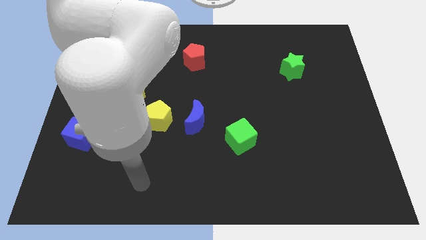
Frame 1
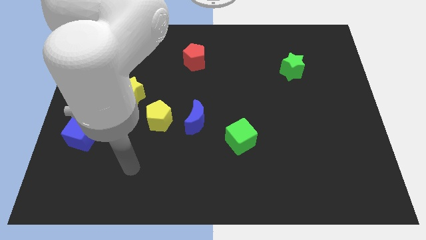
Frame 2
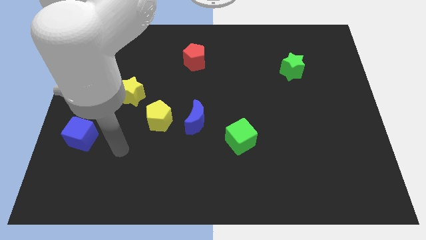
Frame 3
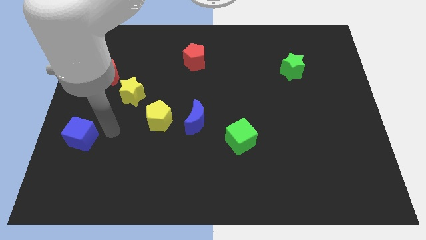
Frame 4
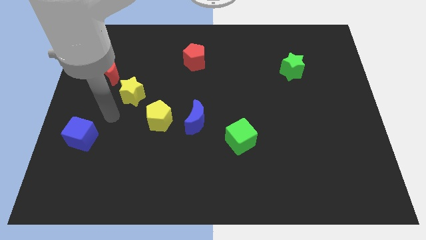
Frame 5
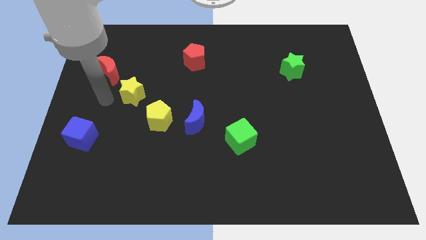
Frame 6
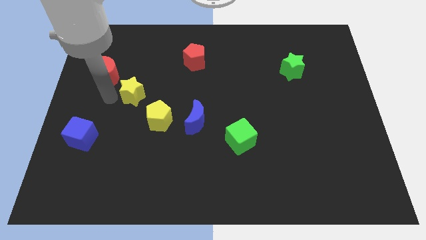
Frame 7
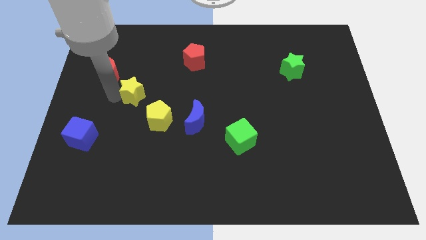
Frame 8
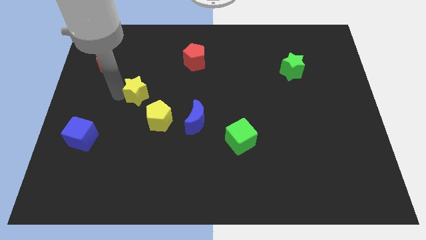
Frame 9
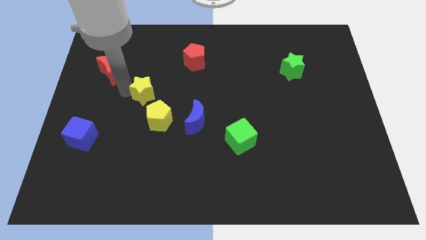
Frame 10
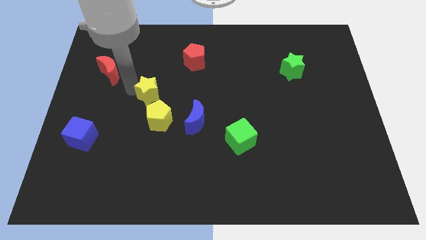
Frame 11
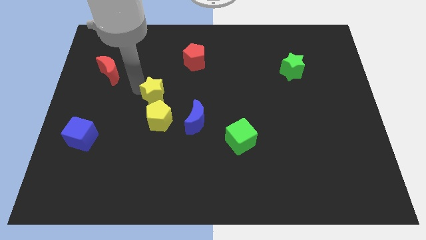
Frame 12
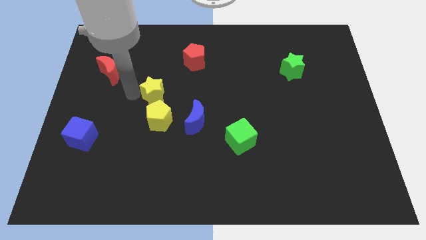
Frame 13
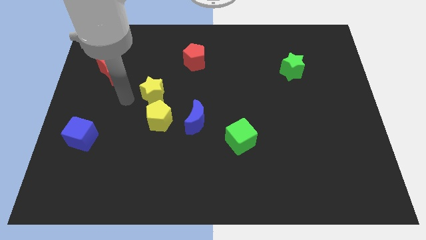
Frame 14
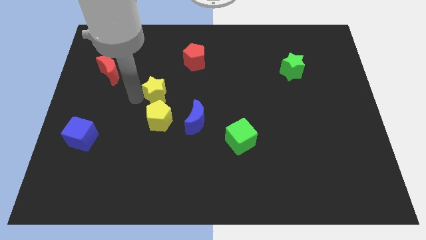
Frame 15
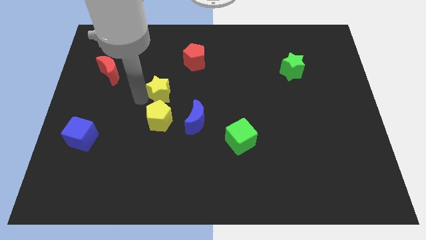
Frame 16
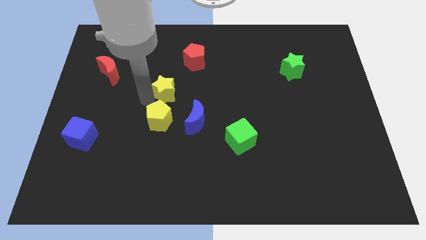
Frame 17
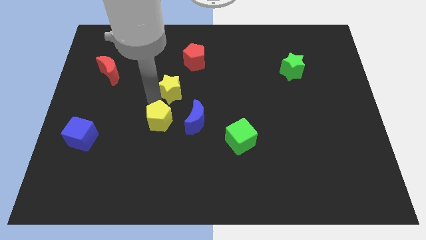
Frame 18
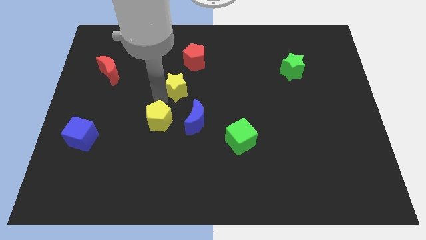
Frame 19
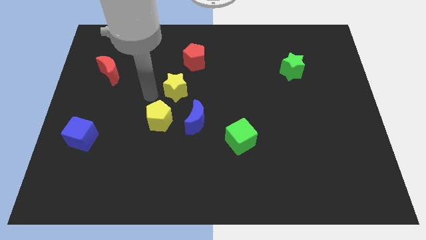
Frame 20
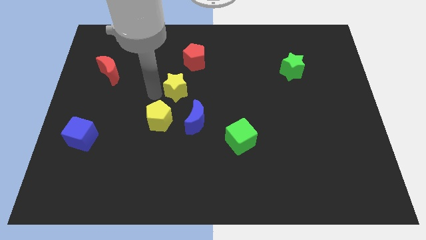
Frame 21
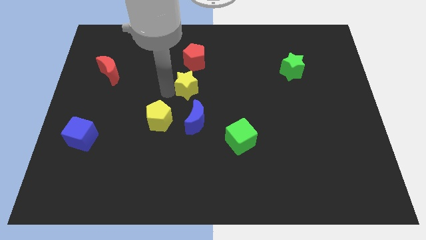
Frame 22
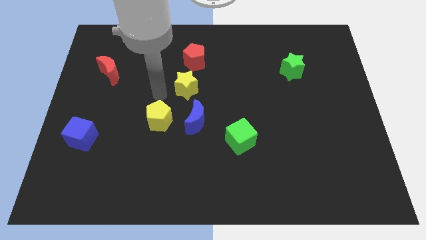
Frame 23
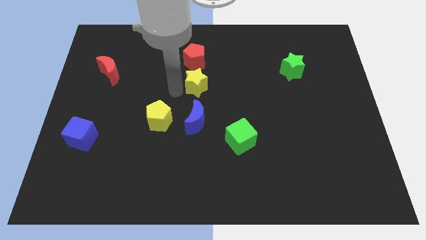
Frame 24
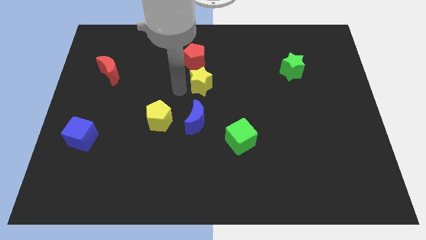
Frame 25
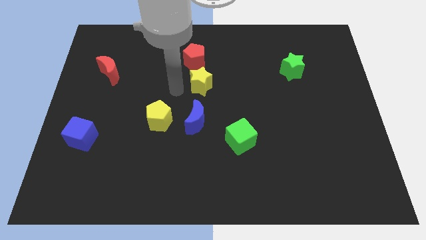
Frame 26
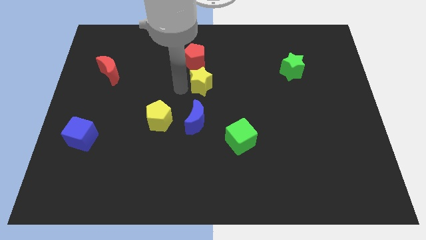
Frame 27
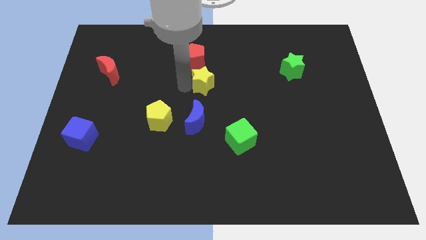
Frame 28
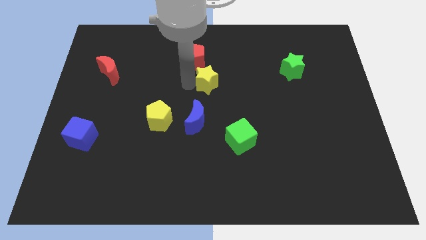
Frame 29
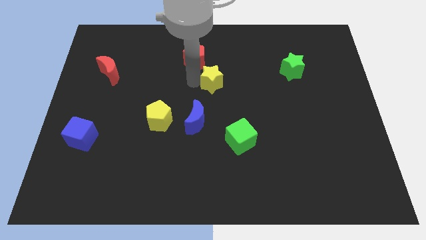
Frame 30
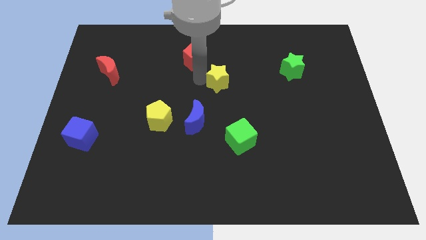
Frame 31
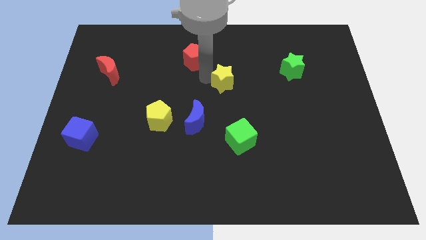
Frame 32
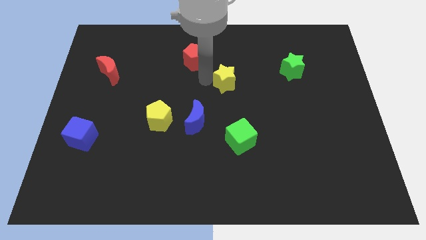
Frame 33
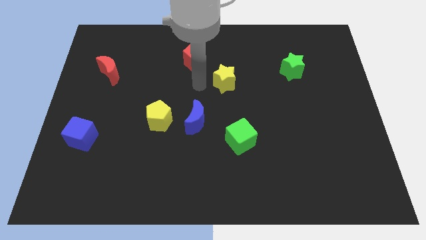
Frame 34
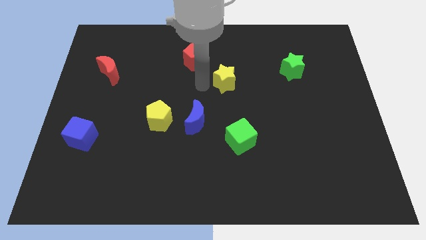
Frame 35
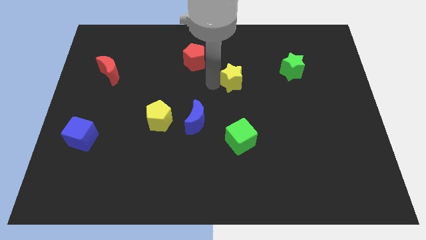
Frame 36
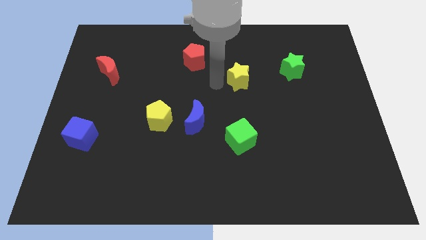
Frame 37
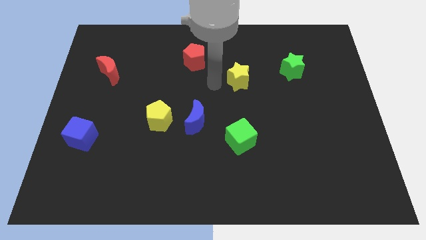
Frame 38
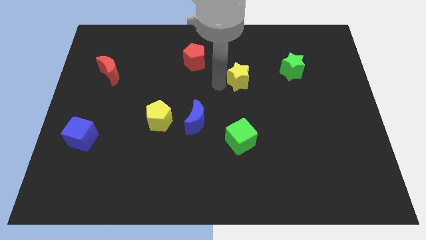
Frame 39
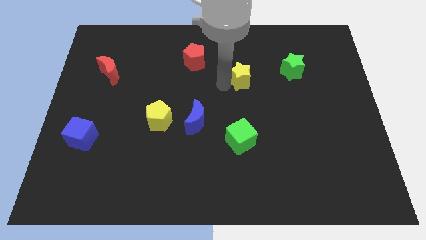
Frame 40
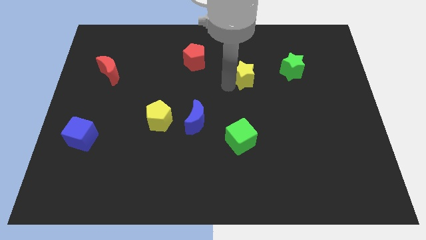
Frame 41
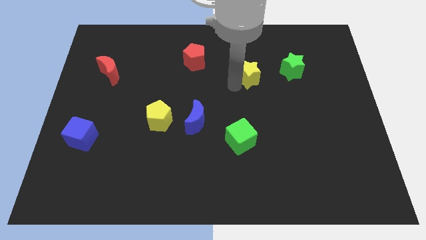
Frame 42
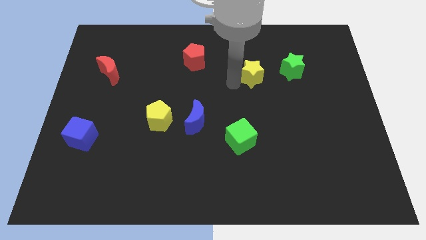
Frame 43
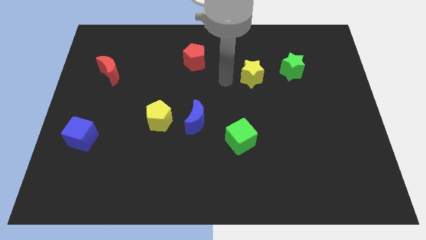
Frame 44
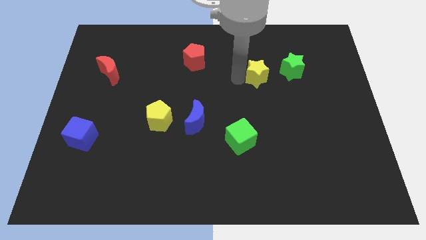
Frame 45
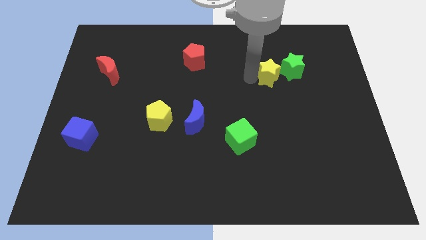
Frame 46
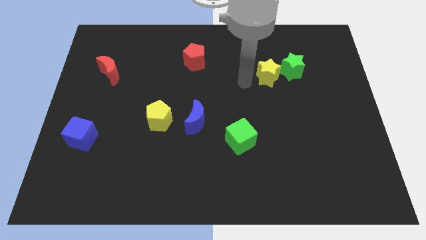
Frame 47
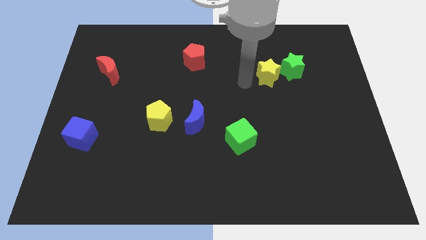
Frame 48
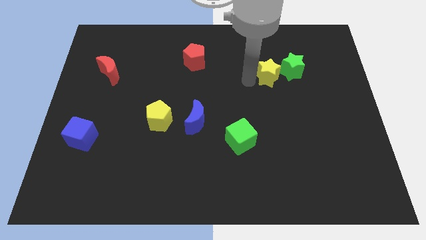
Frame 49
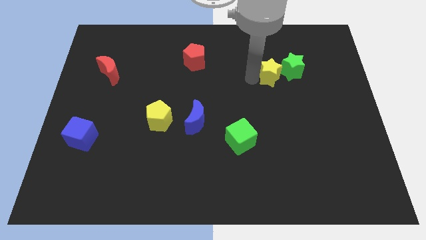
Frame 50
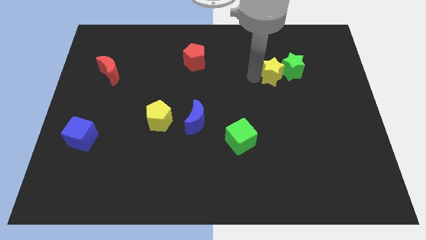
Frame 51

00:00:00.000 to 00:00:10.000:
put the yellow star towards the green star

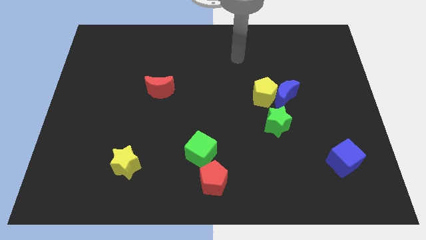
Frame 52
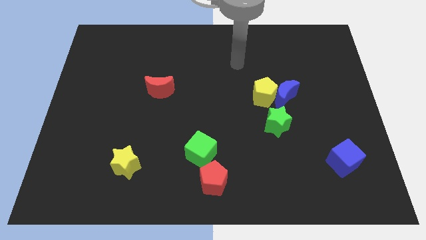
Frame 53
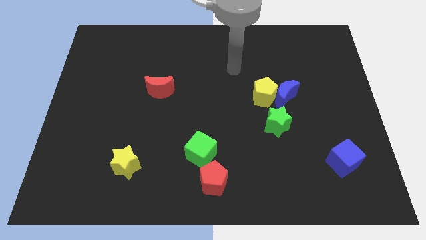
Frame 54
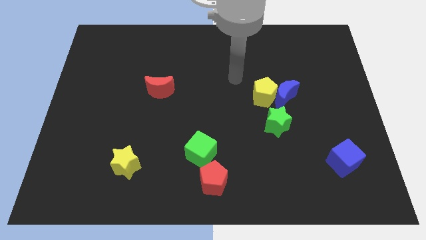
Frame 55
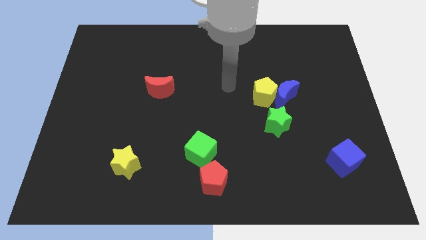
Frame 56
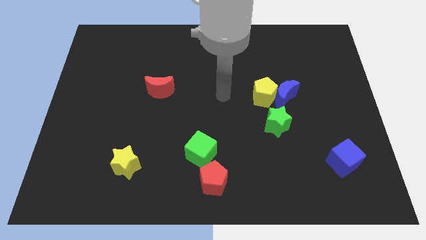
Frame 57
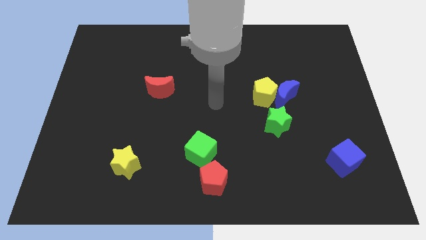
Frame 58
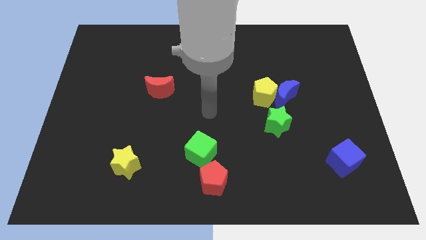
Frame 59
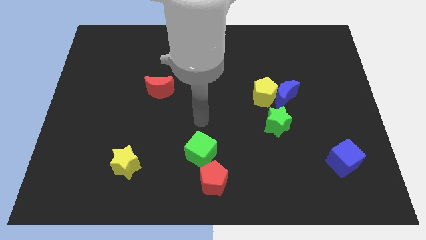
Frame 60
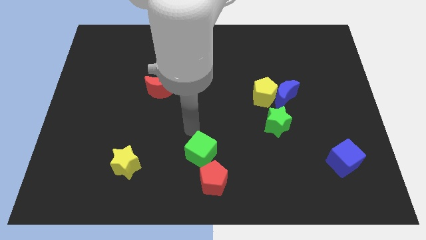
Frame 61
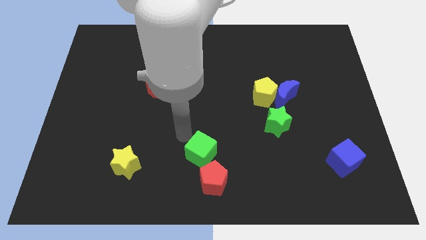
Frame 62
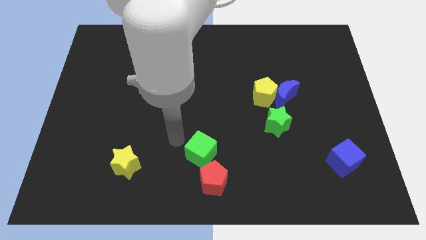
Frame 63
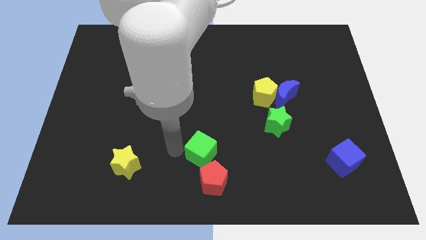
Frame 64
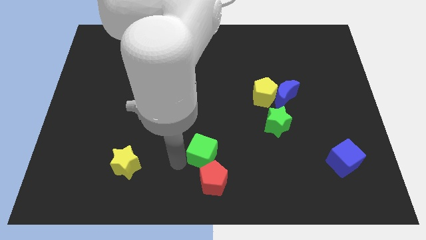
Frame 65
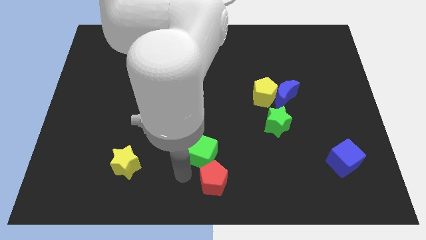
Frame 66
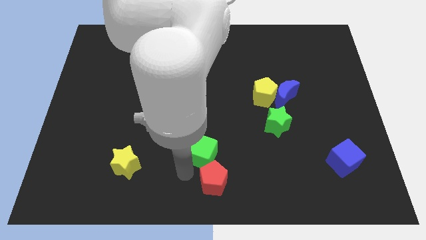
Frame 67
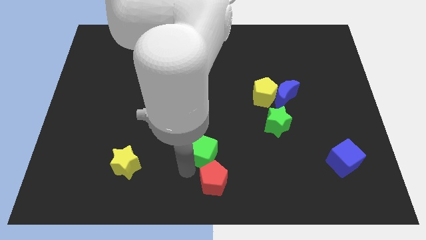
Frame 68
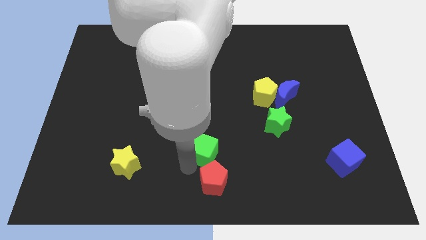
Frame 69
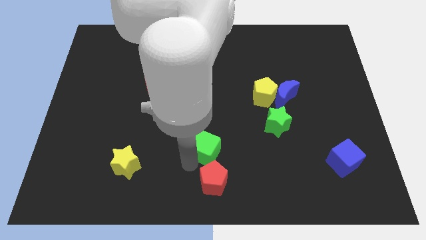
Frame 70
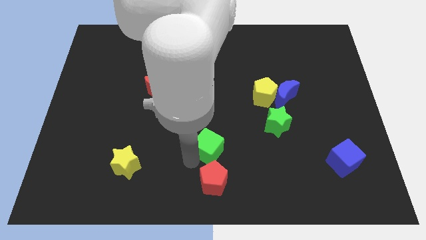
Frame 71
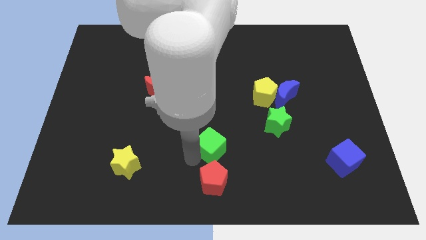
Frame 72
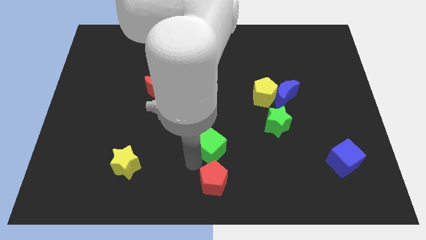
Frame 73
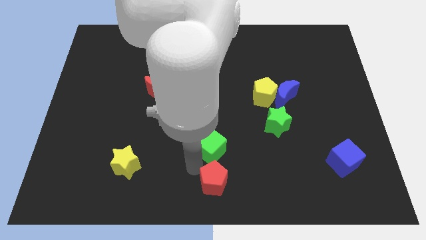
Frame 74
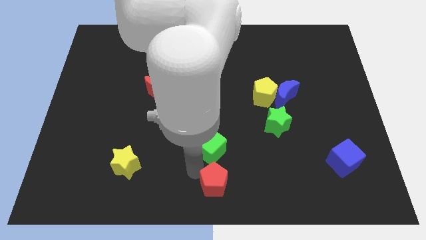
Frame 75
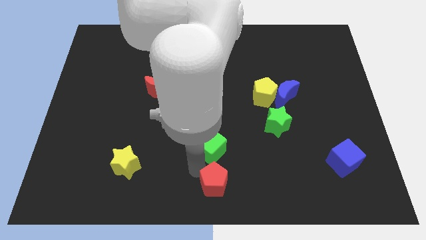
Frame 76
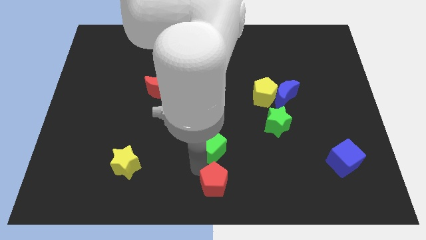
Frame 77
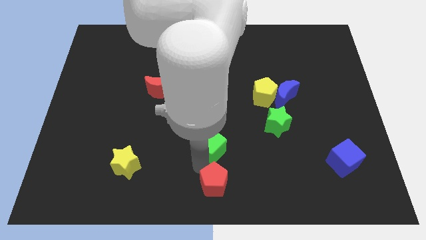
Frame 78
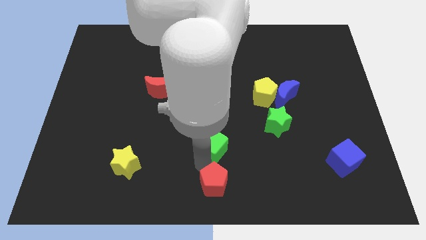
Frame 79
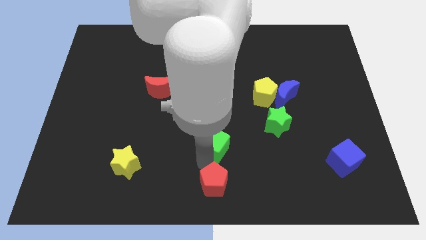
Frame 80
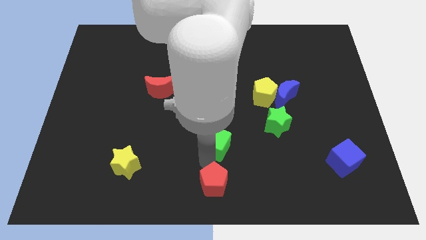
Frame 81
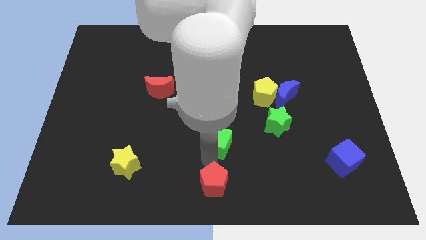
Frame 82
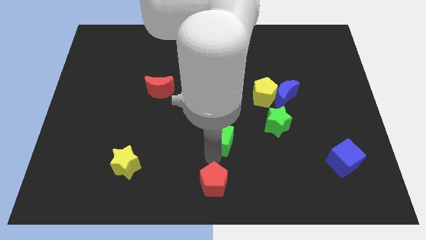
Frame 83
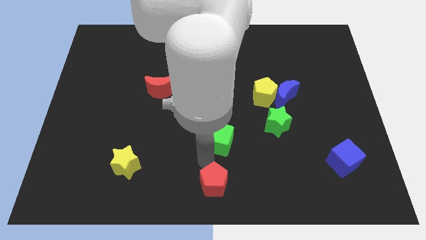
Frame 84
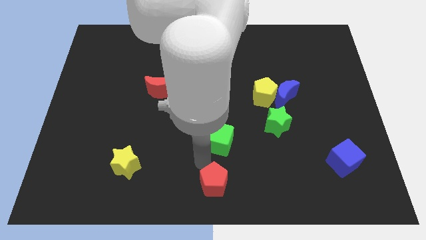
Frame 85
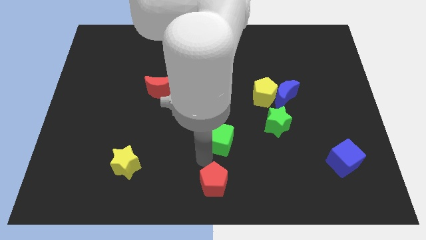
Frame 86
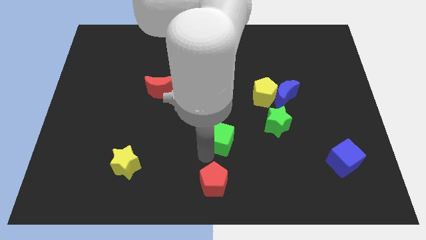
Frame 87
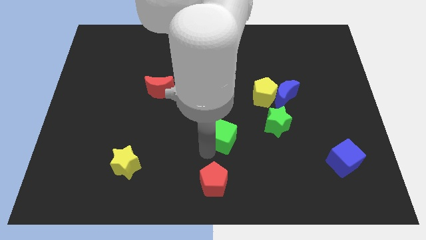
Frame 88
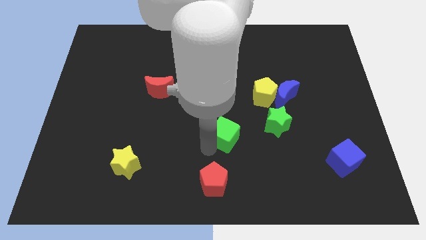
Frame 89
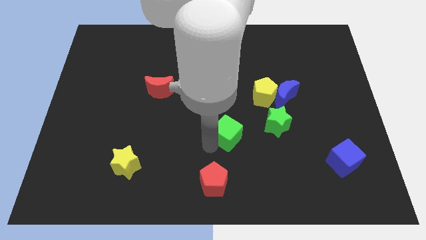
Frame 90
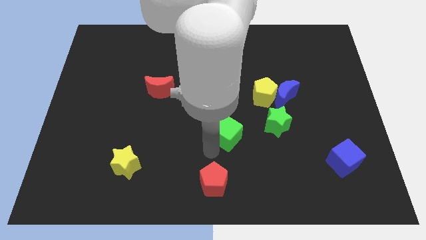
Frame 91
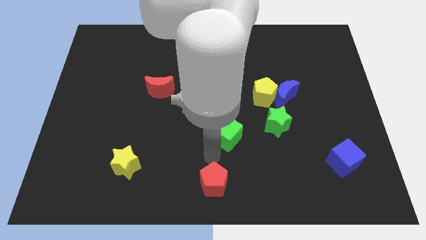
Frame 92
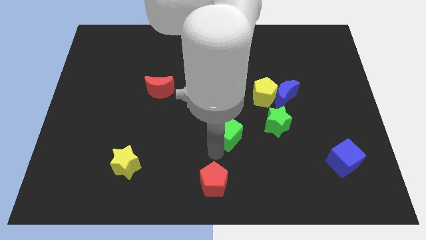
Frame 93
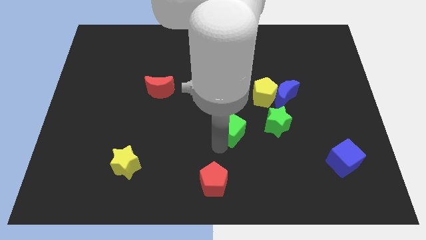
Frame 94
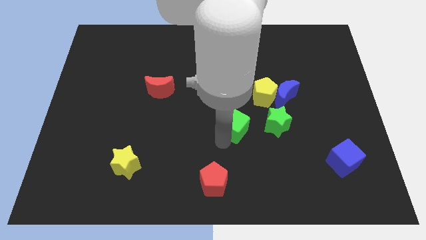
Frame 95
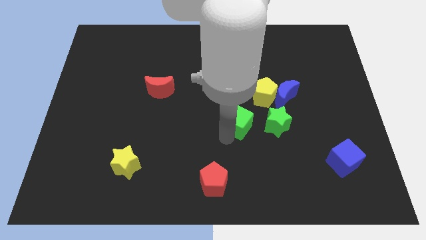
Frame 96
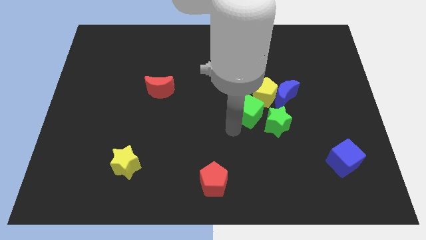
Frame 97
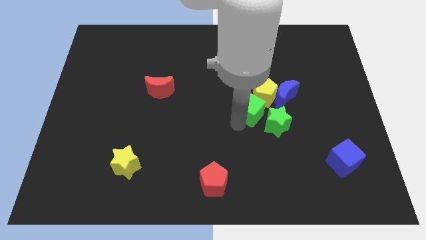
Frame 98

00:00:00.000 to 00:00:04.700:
push the green cube close to the yellow pentagon
